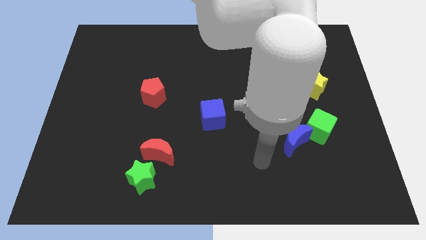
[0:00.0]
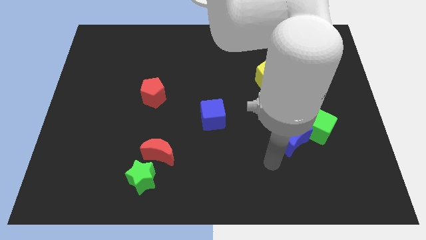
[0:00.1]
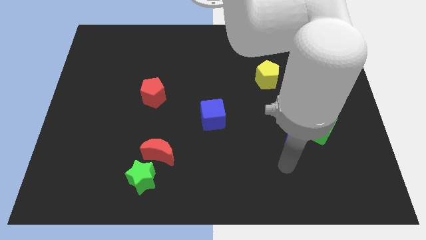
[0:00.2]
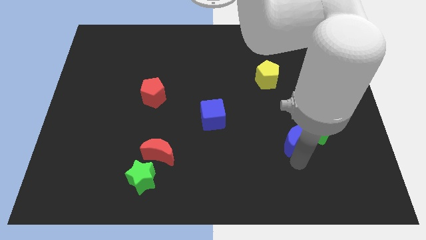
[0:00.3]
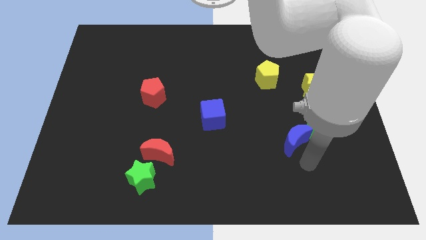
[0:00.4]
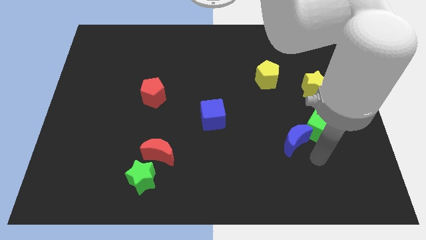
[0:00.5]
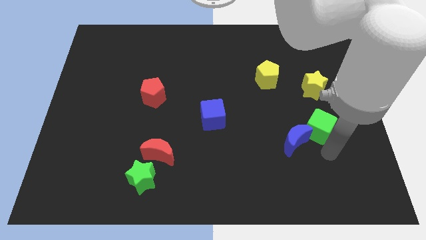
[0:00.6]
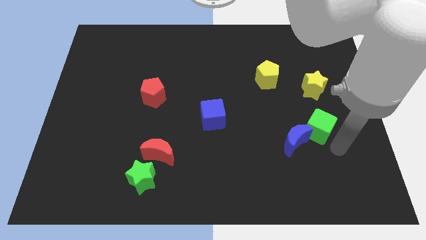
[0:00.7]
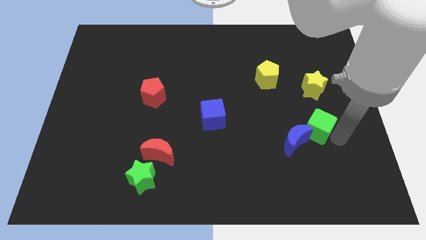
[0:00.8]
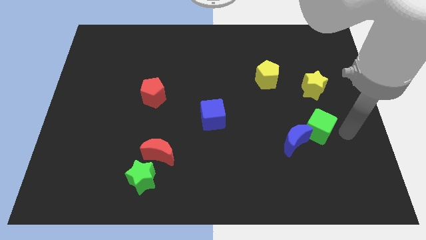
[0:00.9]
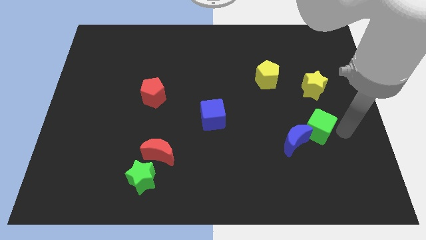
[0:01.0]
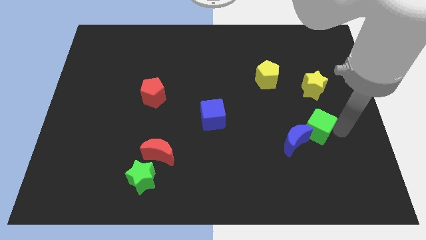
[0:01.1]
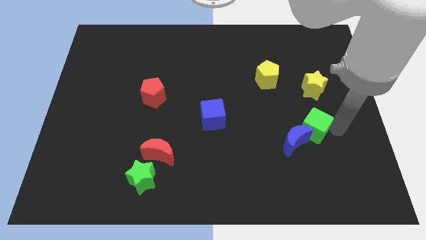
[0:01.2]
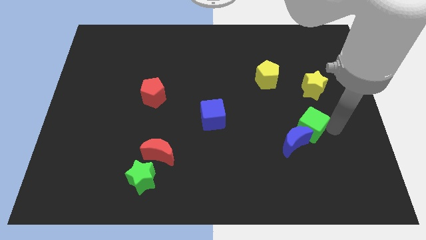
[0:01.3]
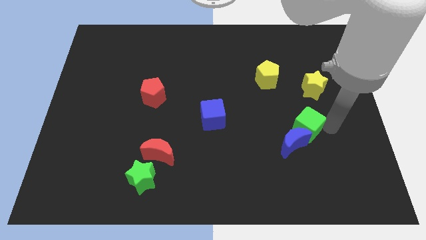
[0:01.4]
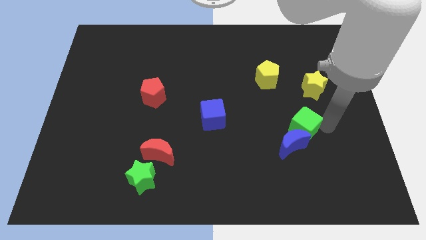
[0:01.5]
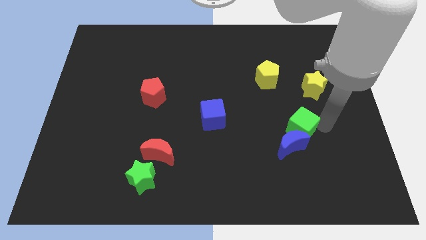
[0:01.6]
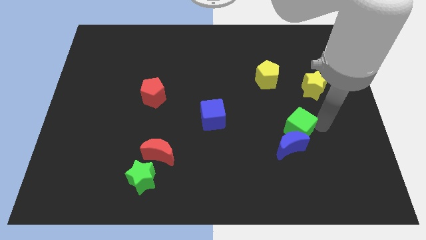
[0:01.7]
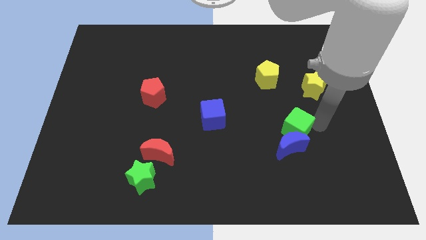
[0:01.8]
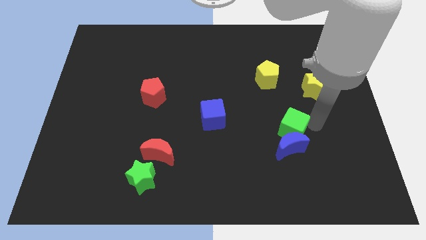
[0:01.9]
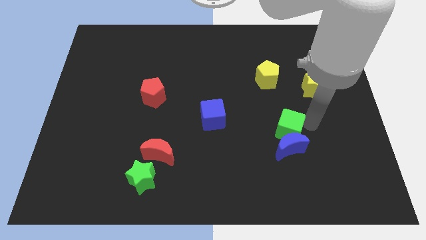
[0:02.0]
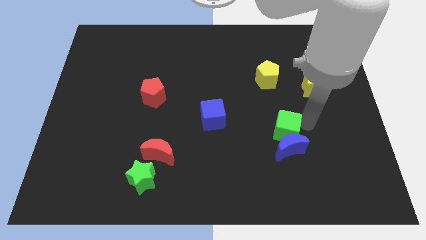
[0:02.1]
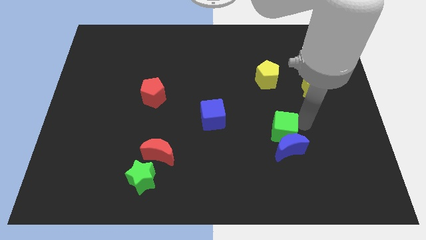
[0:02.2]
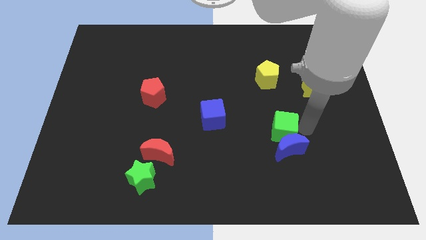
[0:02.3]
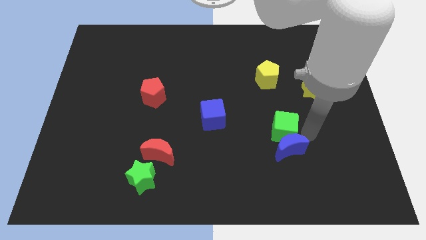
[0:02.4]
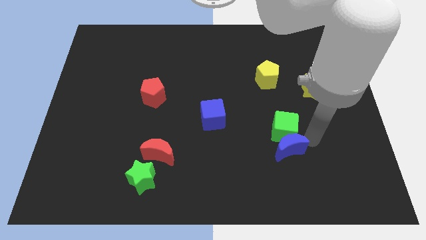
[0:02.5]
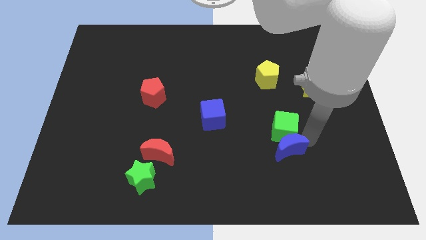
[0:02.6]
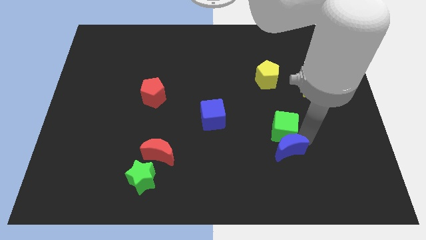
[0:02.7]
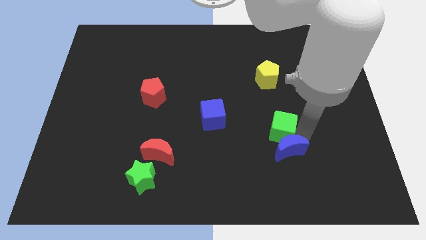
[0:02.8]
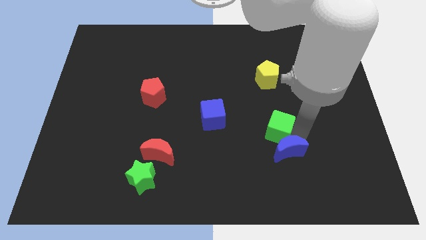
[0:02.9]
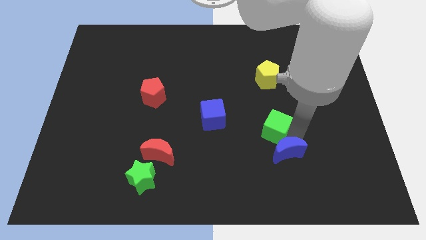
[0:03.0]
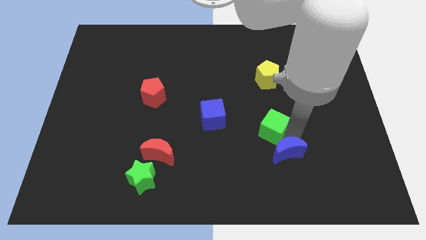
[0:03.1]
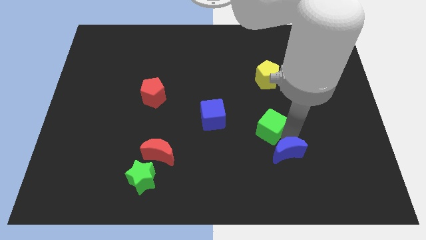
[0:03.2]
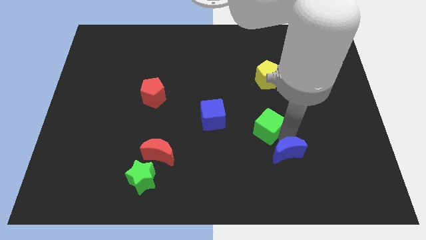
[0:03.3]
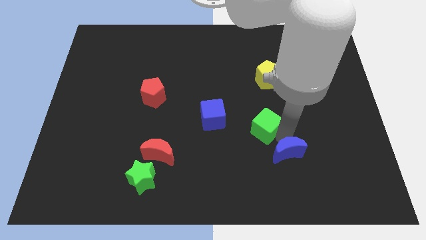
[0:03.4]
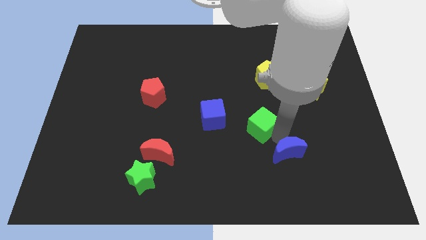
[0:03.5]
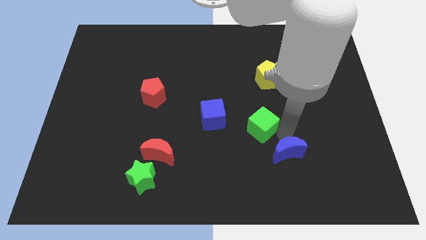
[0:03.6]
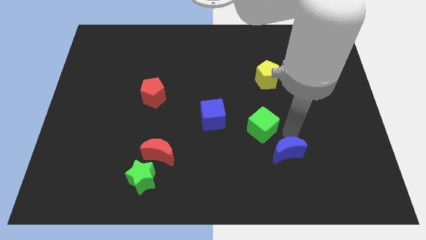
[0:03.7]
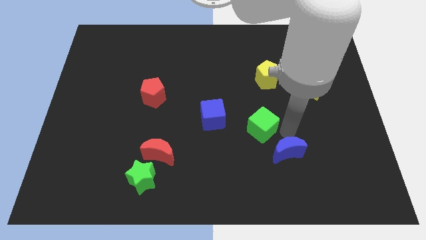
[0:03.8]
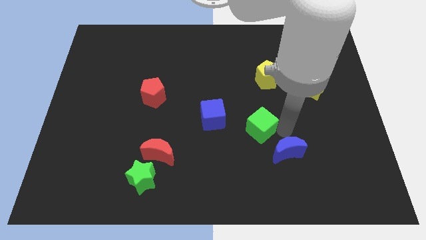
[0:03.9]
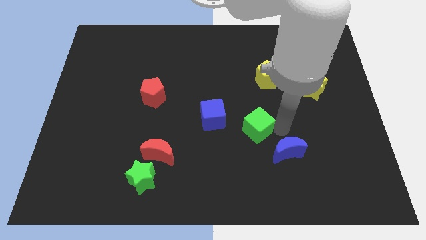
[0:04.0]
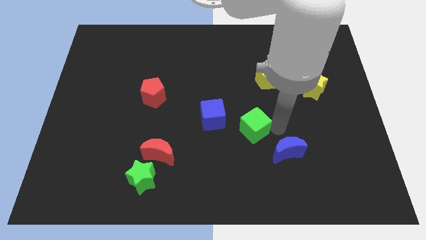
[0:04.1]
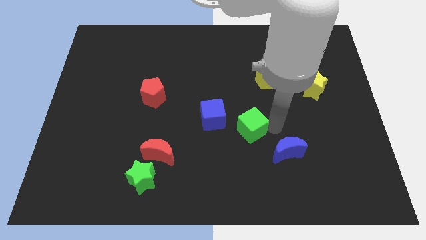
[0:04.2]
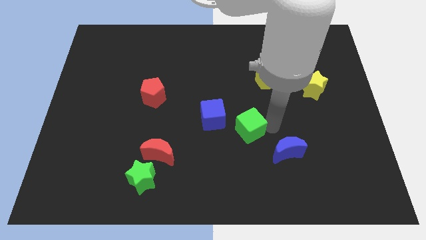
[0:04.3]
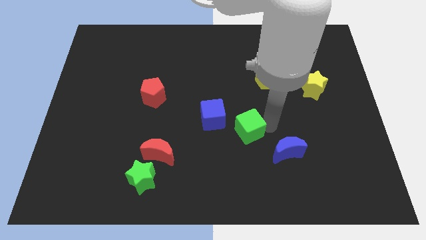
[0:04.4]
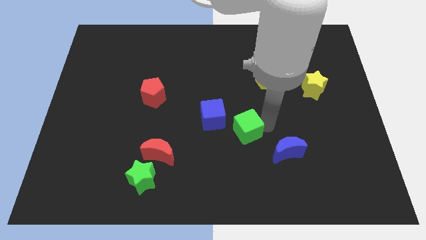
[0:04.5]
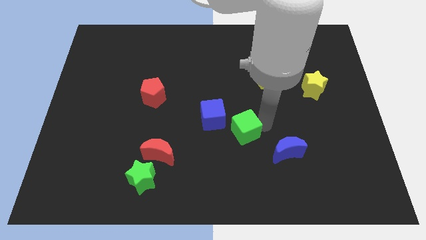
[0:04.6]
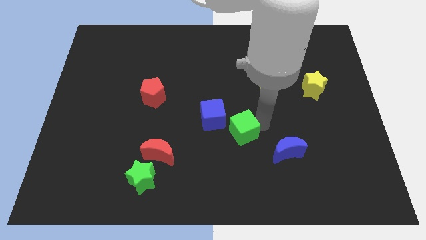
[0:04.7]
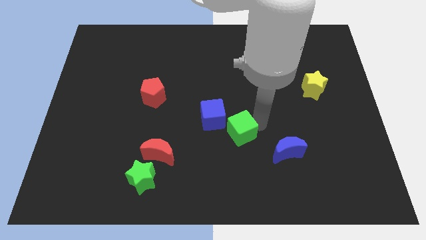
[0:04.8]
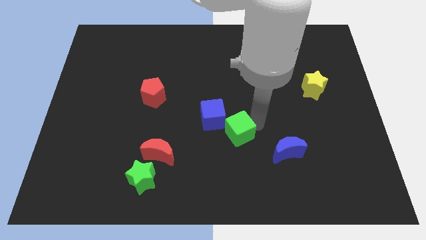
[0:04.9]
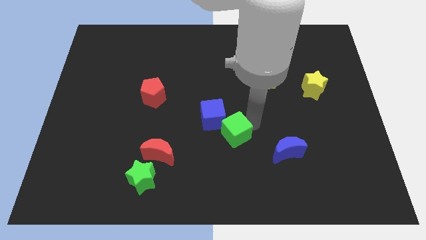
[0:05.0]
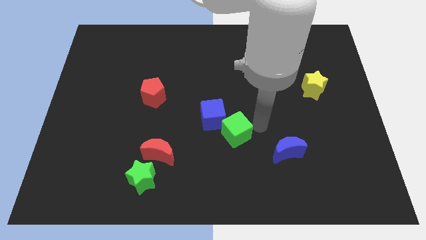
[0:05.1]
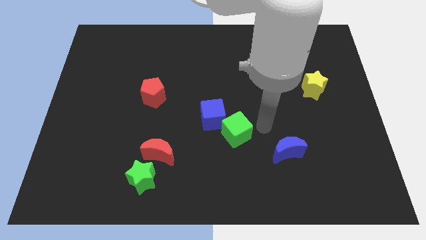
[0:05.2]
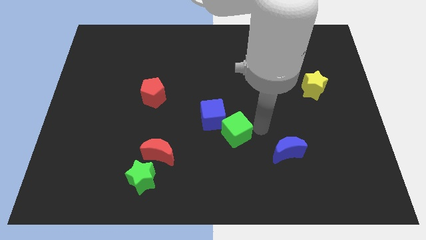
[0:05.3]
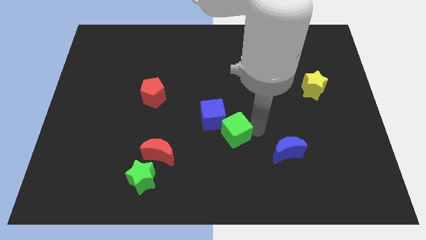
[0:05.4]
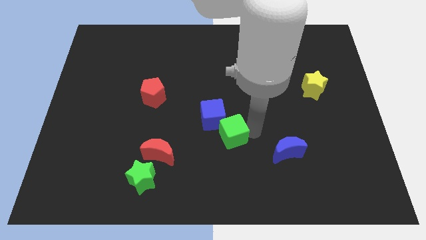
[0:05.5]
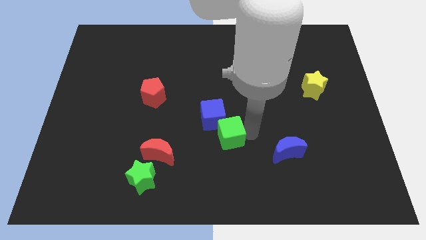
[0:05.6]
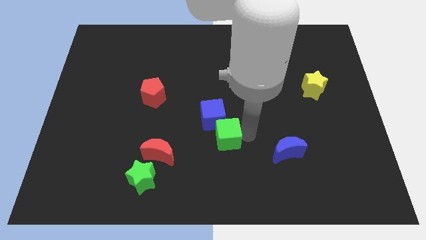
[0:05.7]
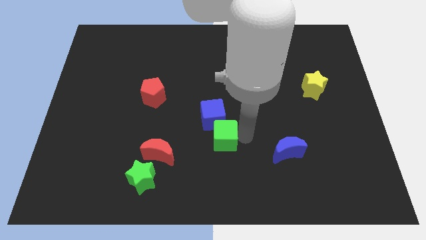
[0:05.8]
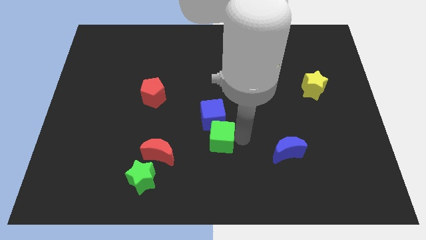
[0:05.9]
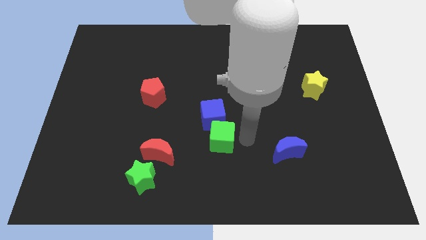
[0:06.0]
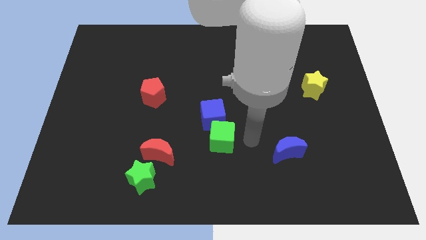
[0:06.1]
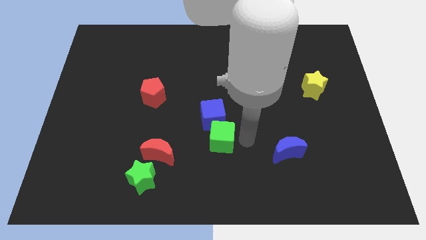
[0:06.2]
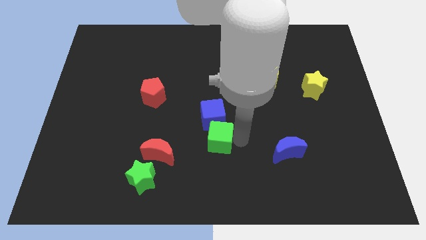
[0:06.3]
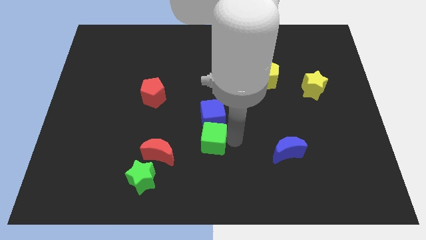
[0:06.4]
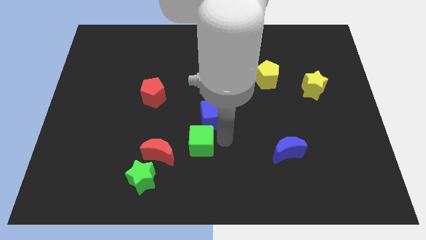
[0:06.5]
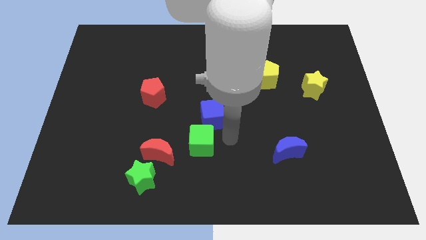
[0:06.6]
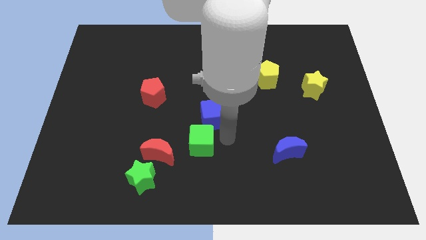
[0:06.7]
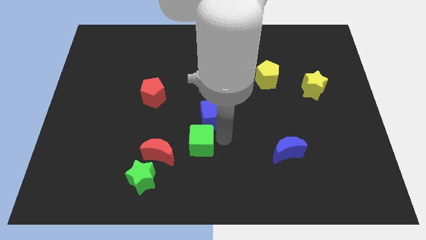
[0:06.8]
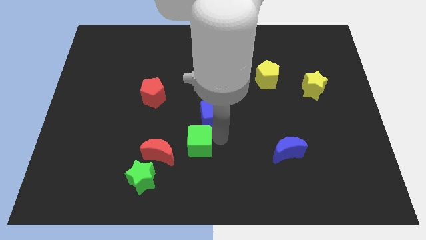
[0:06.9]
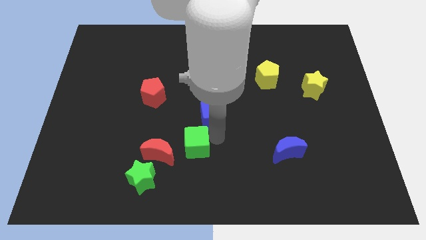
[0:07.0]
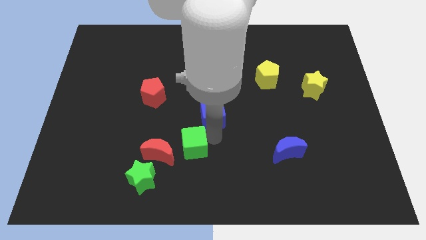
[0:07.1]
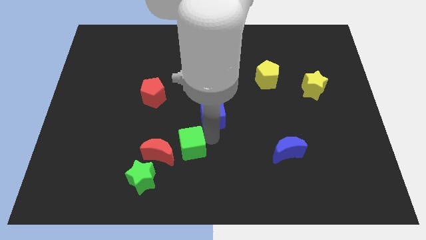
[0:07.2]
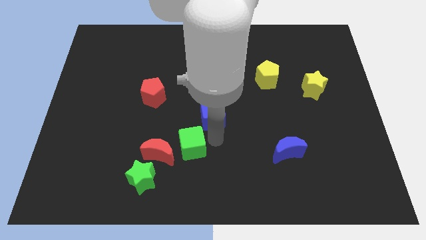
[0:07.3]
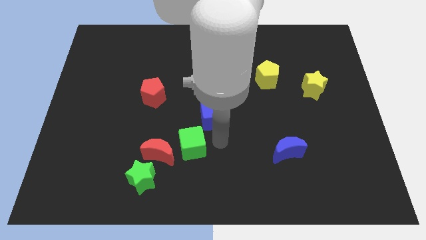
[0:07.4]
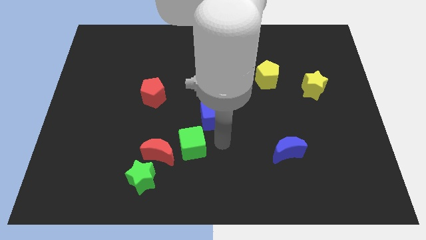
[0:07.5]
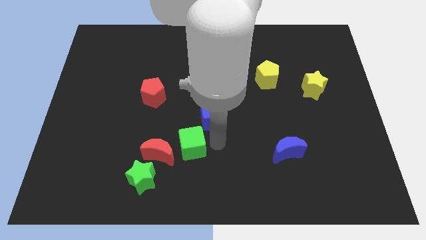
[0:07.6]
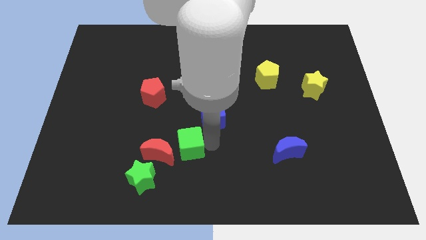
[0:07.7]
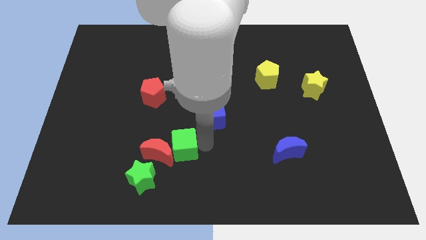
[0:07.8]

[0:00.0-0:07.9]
move the green cube towards the red moon
